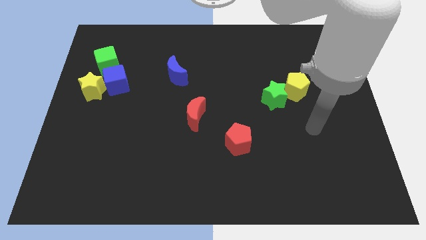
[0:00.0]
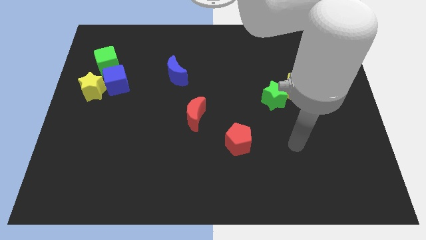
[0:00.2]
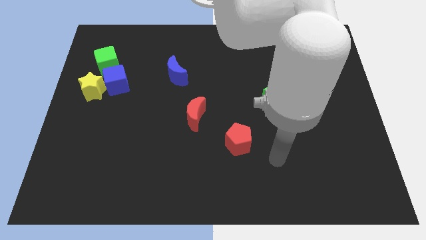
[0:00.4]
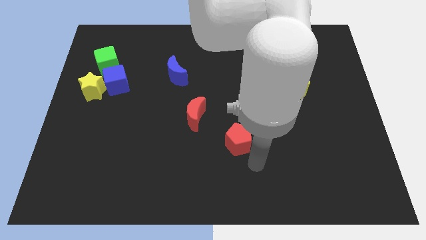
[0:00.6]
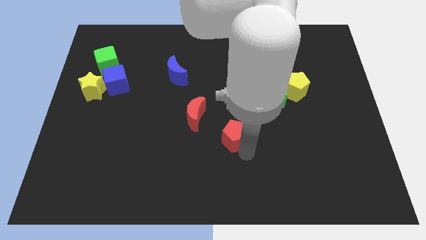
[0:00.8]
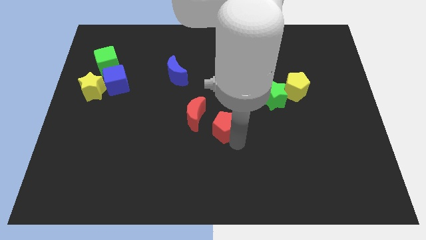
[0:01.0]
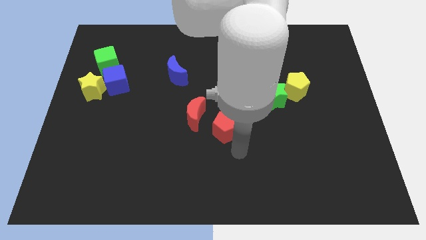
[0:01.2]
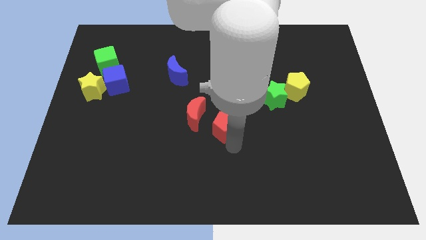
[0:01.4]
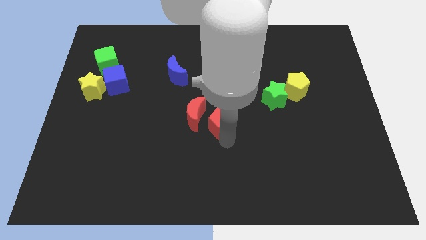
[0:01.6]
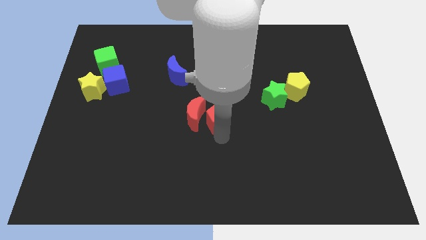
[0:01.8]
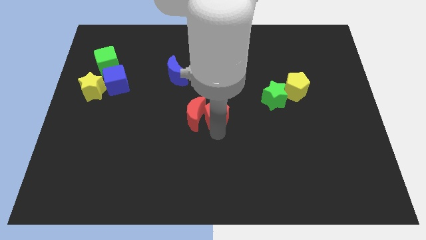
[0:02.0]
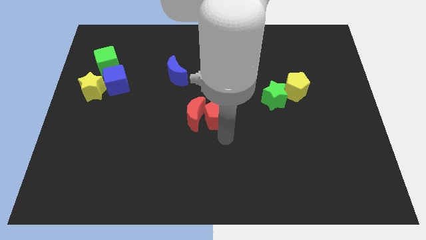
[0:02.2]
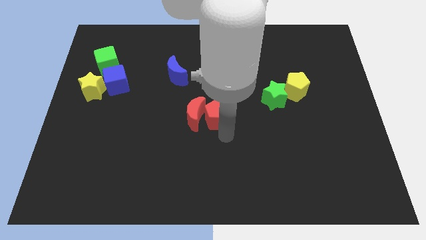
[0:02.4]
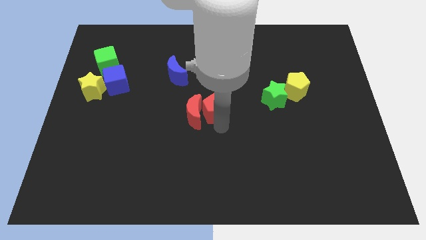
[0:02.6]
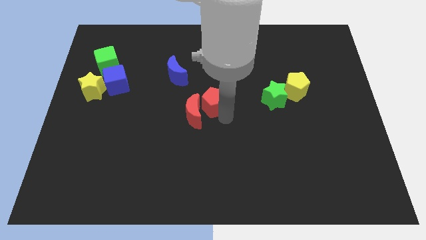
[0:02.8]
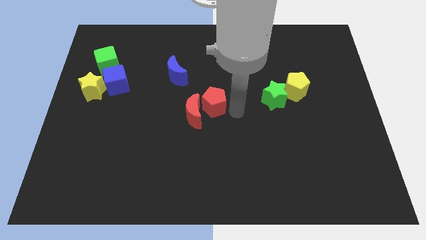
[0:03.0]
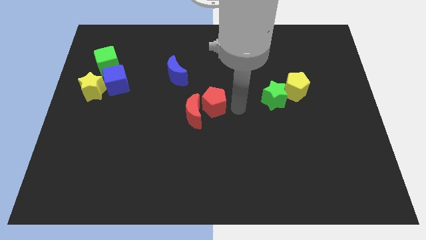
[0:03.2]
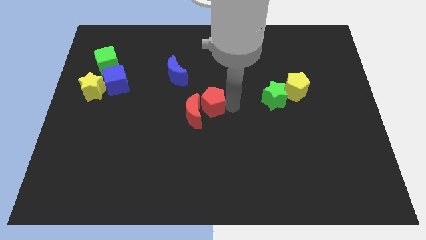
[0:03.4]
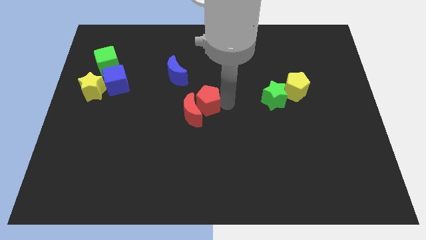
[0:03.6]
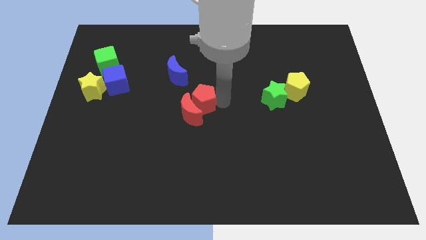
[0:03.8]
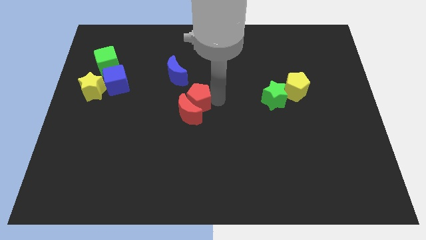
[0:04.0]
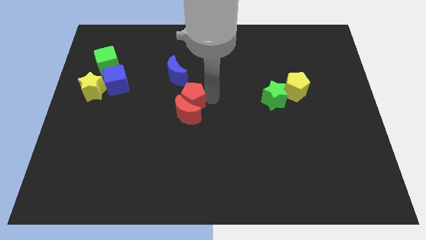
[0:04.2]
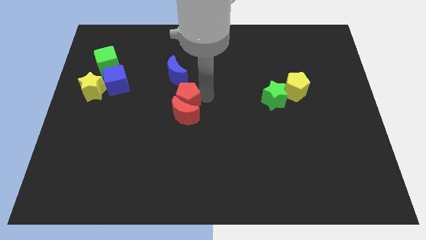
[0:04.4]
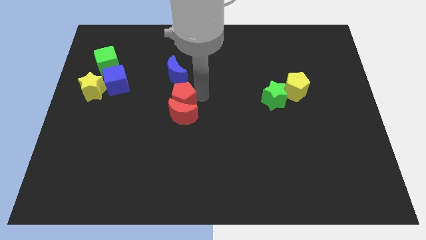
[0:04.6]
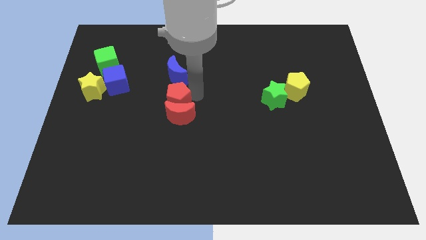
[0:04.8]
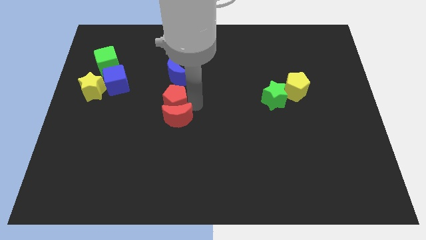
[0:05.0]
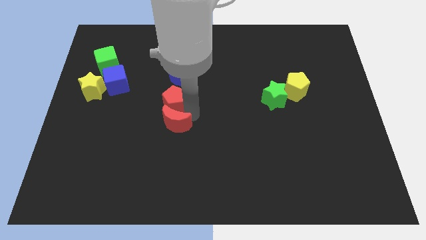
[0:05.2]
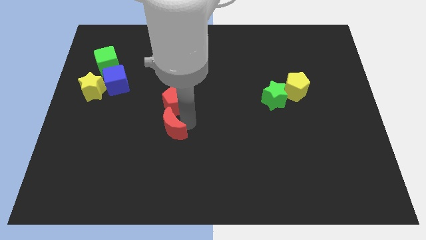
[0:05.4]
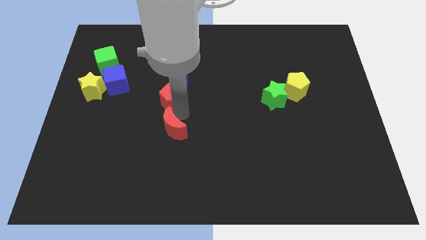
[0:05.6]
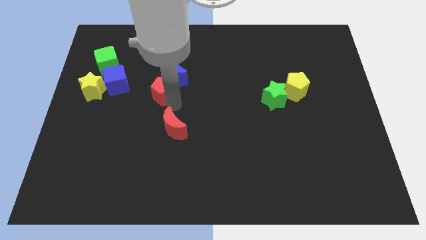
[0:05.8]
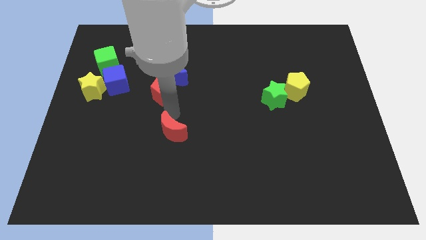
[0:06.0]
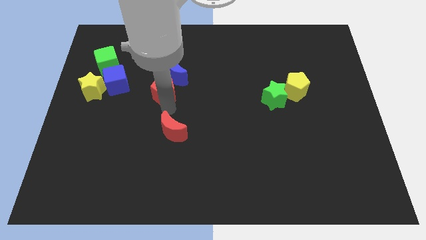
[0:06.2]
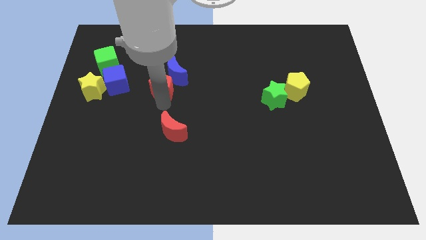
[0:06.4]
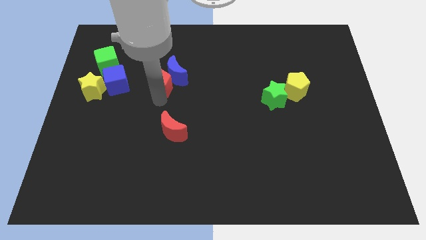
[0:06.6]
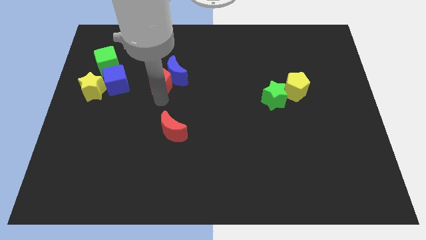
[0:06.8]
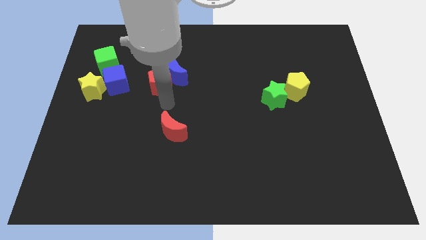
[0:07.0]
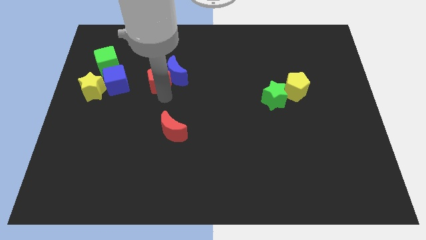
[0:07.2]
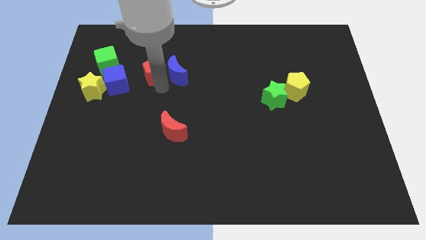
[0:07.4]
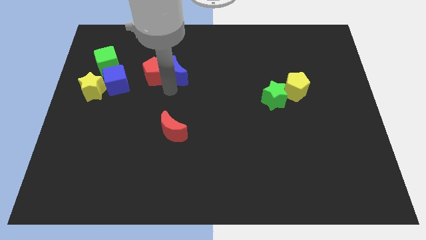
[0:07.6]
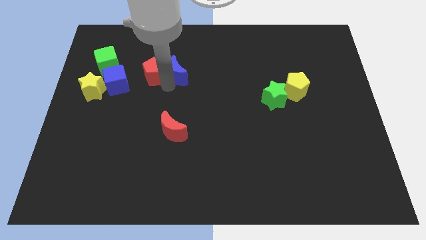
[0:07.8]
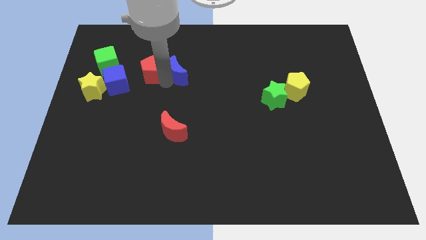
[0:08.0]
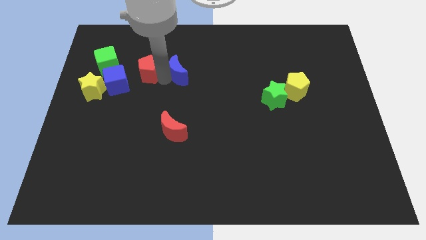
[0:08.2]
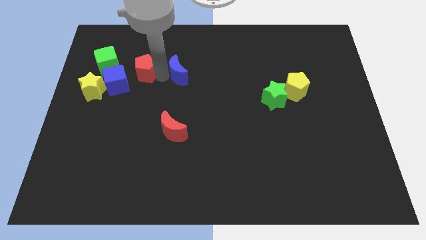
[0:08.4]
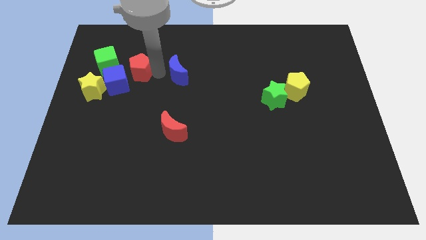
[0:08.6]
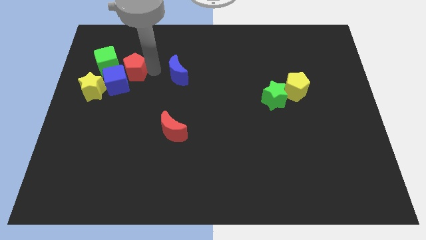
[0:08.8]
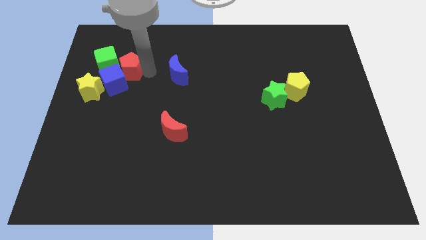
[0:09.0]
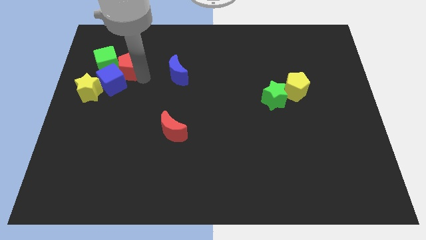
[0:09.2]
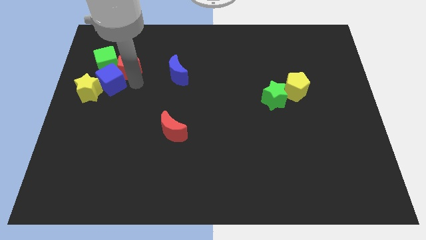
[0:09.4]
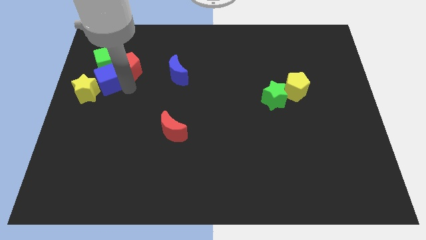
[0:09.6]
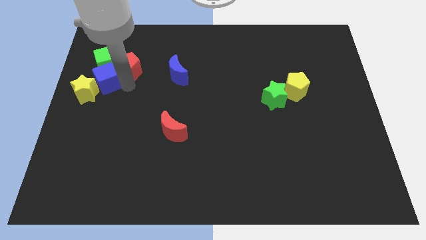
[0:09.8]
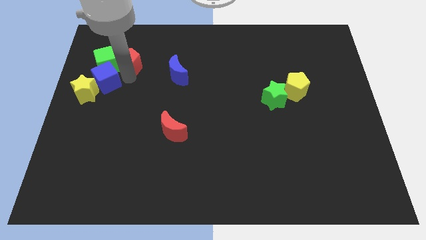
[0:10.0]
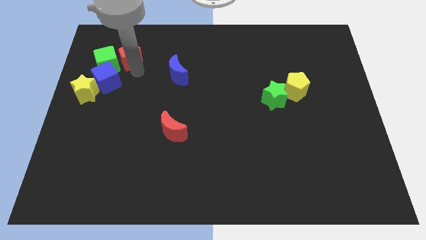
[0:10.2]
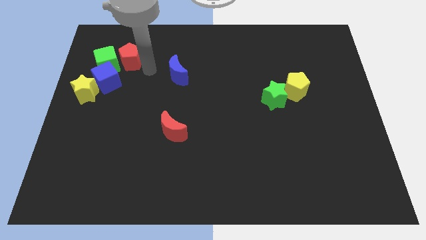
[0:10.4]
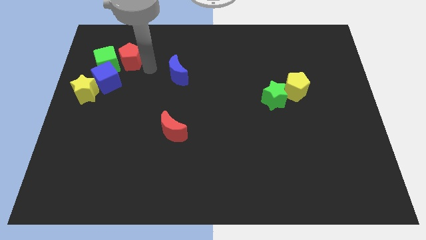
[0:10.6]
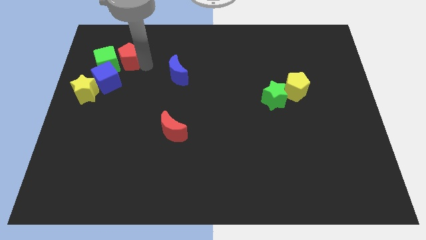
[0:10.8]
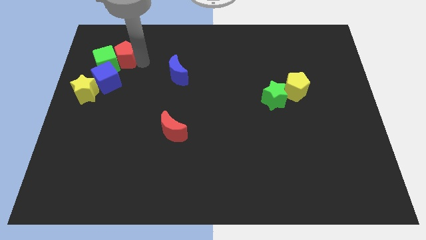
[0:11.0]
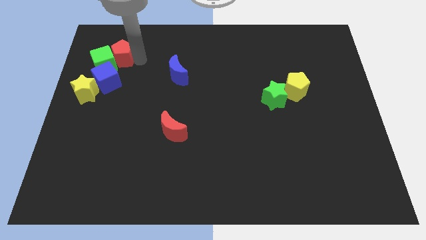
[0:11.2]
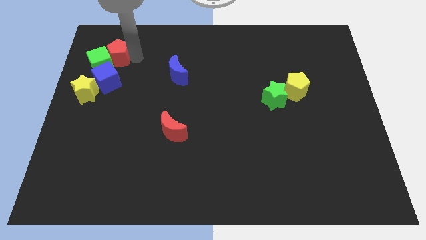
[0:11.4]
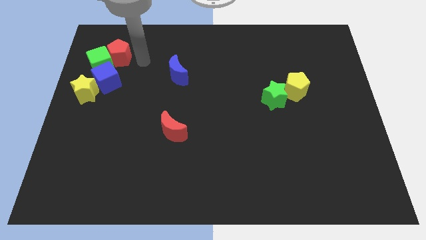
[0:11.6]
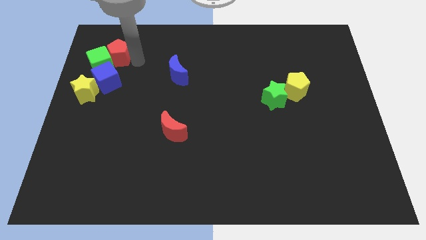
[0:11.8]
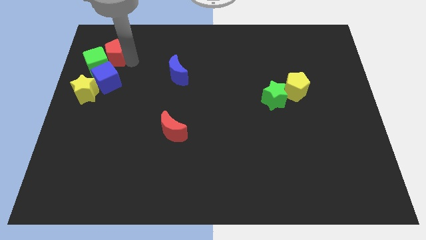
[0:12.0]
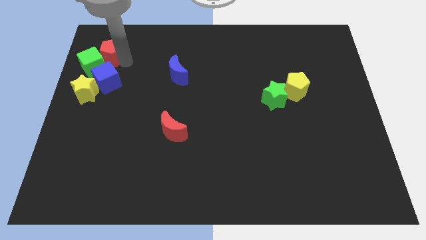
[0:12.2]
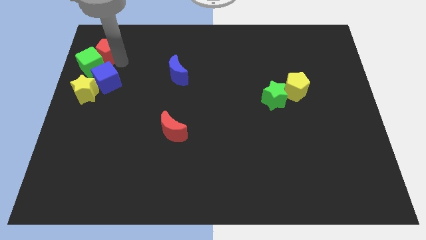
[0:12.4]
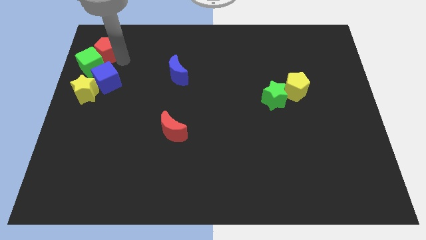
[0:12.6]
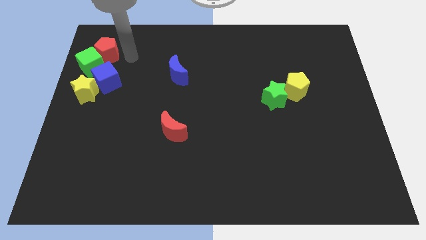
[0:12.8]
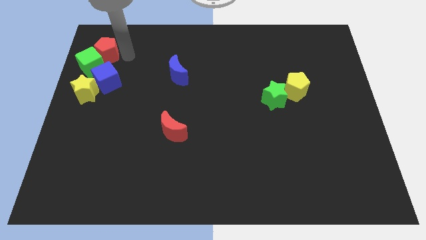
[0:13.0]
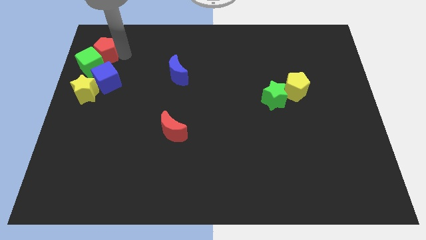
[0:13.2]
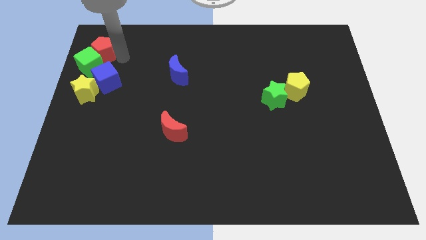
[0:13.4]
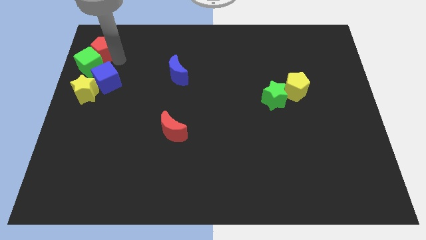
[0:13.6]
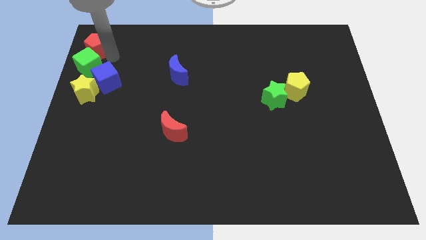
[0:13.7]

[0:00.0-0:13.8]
move the red pentagon to the top left of the board
